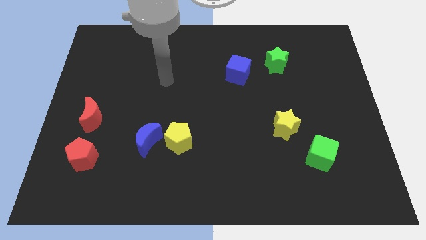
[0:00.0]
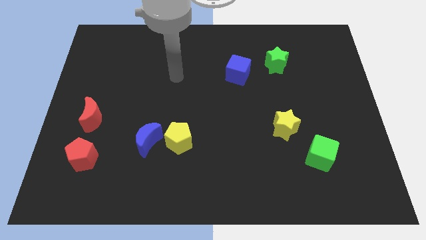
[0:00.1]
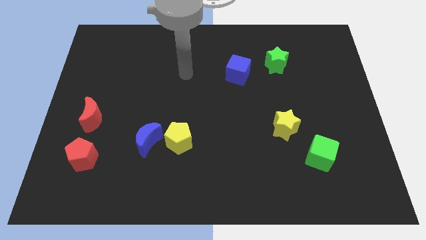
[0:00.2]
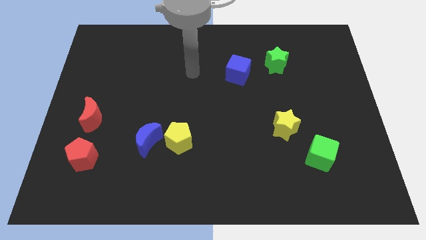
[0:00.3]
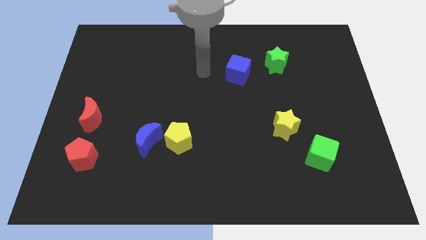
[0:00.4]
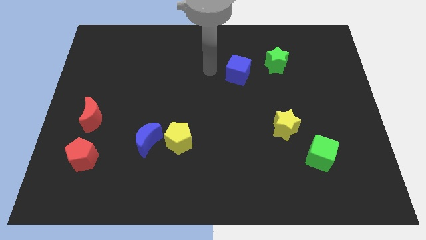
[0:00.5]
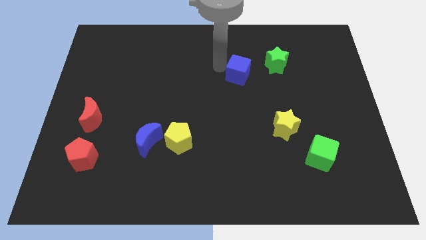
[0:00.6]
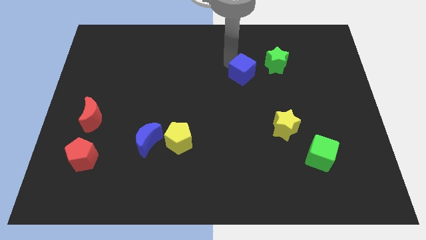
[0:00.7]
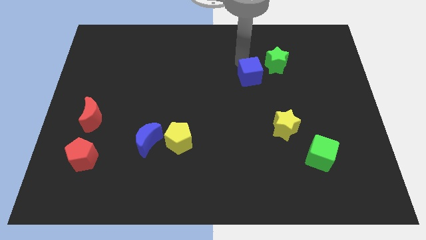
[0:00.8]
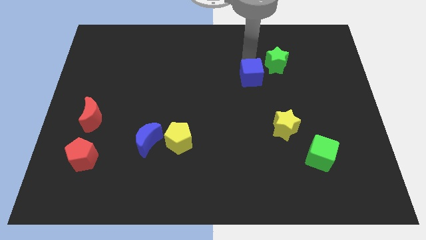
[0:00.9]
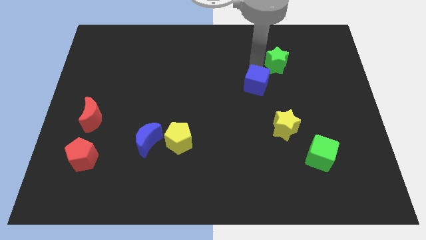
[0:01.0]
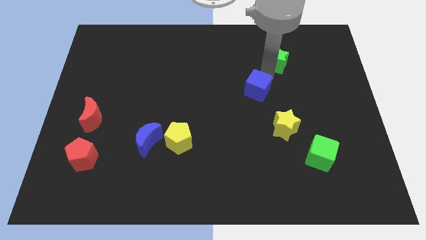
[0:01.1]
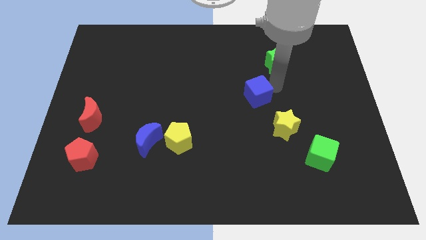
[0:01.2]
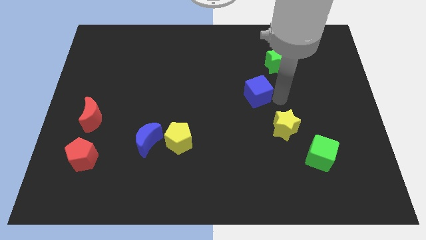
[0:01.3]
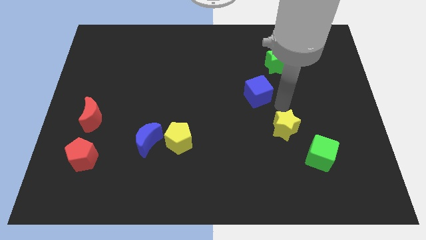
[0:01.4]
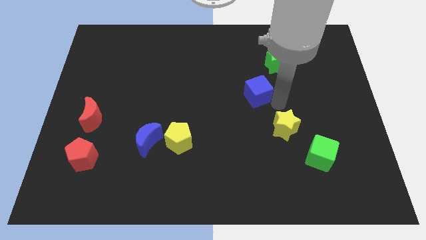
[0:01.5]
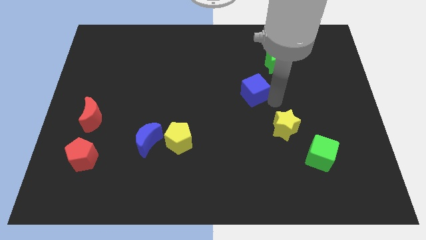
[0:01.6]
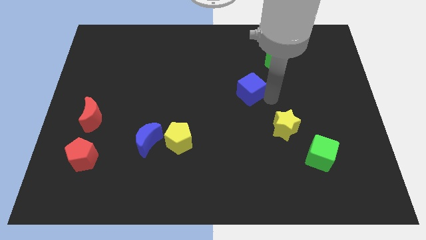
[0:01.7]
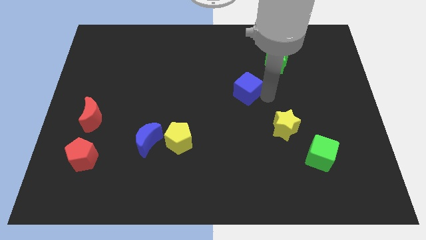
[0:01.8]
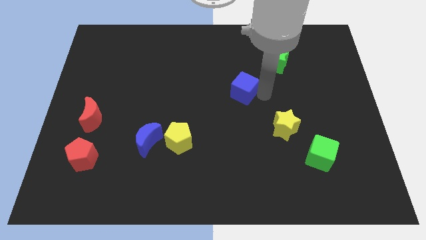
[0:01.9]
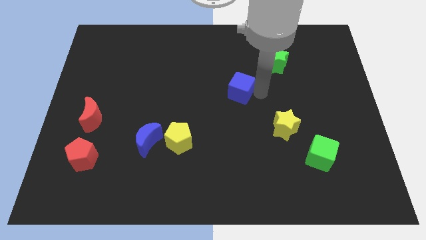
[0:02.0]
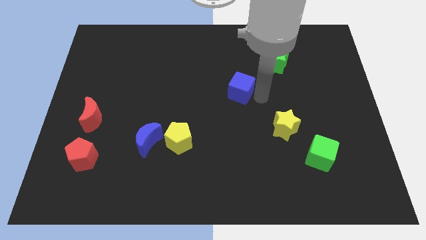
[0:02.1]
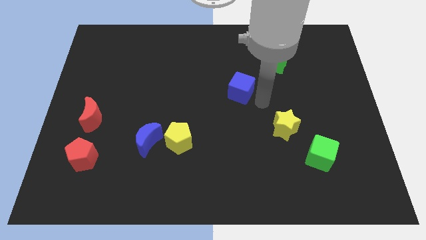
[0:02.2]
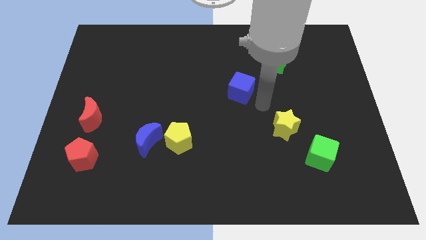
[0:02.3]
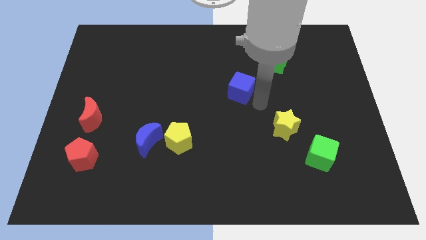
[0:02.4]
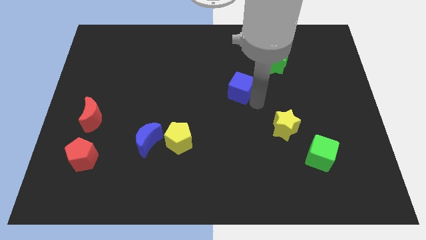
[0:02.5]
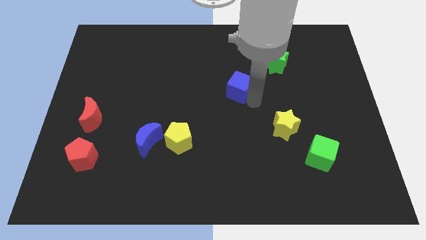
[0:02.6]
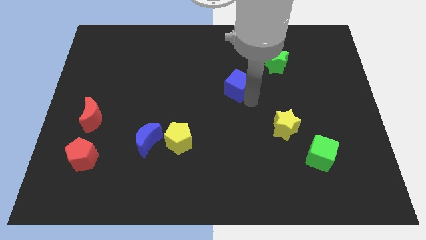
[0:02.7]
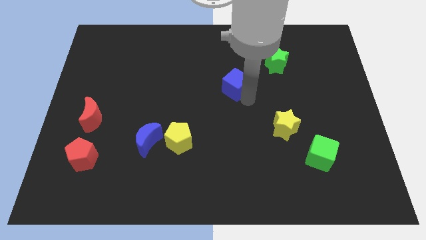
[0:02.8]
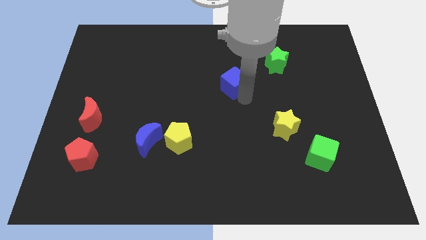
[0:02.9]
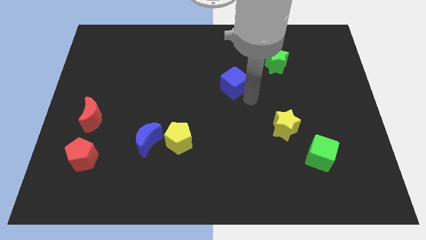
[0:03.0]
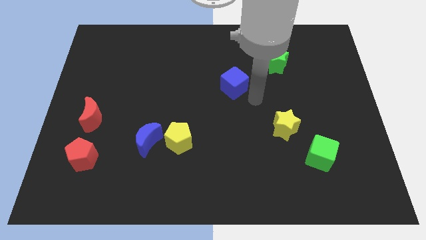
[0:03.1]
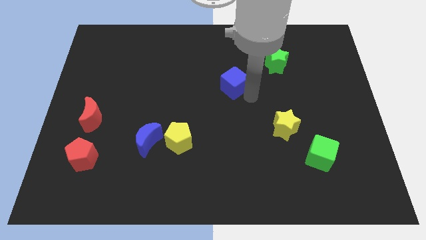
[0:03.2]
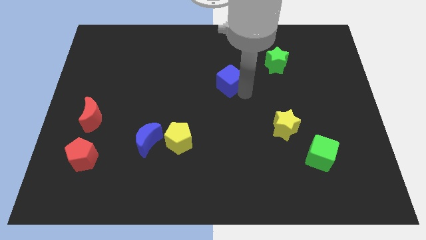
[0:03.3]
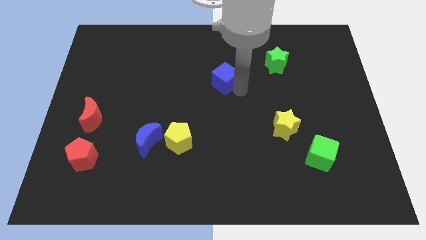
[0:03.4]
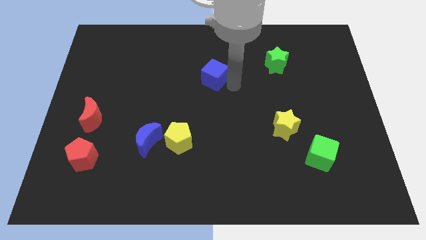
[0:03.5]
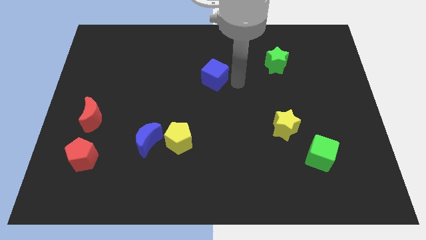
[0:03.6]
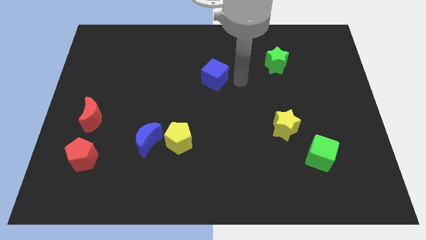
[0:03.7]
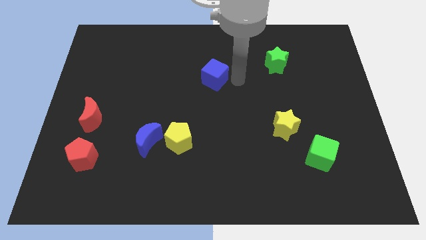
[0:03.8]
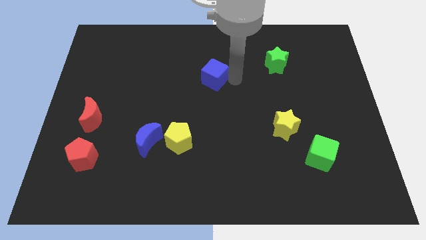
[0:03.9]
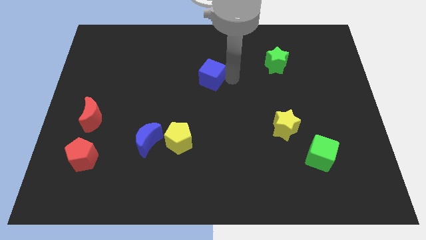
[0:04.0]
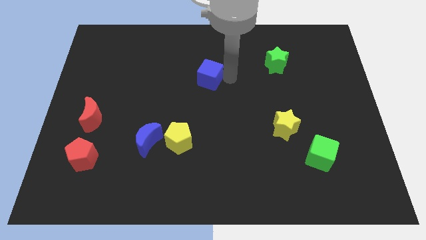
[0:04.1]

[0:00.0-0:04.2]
slide the blue cube a little bit to the left

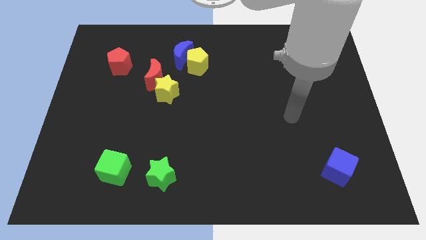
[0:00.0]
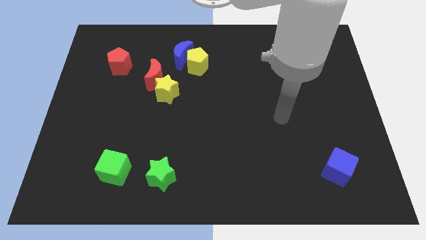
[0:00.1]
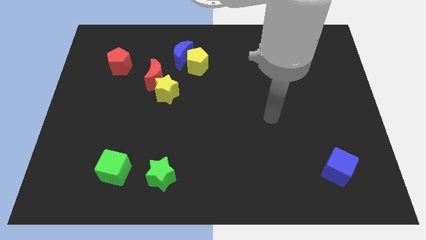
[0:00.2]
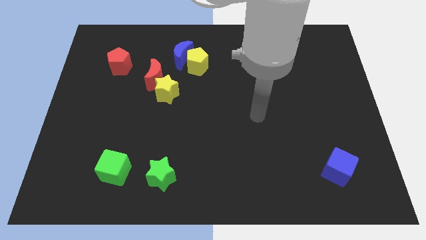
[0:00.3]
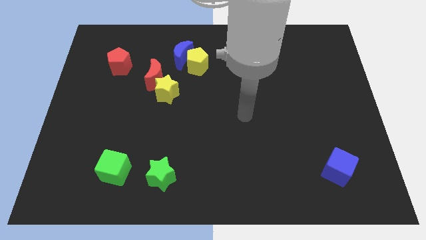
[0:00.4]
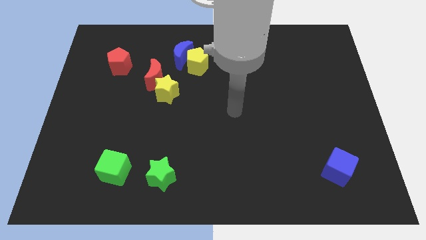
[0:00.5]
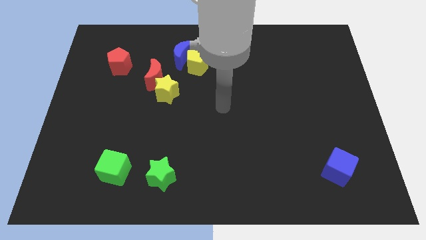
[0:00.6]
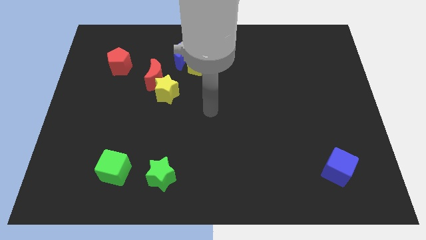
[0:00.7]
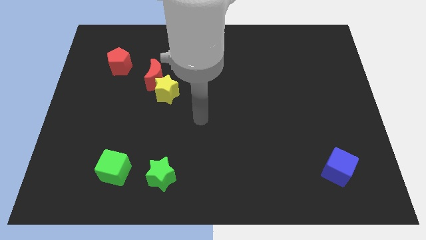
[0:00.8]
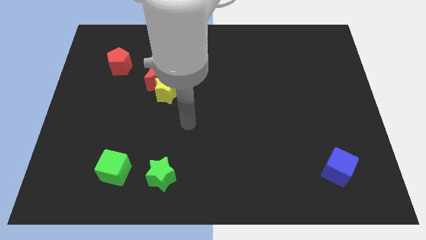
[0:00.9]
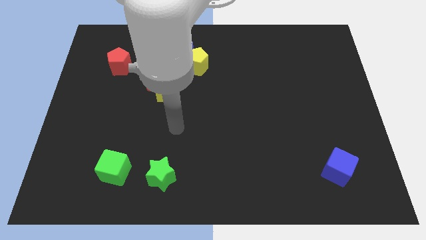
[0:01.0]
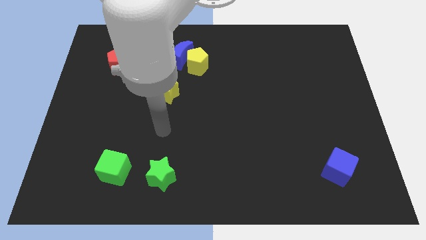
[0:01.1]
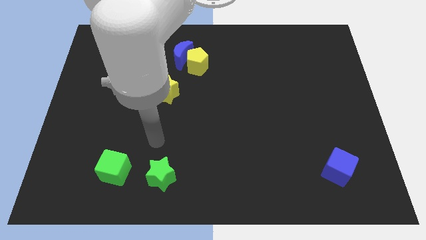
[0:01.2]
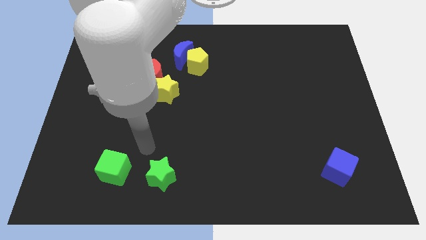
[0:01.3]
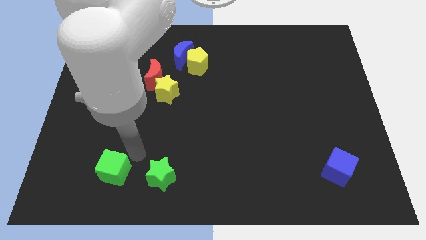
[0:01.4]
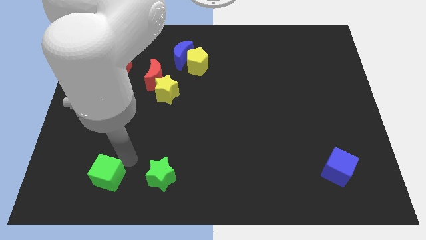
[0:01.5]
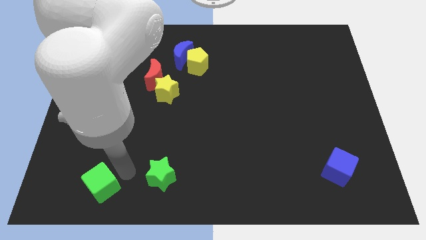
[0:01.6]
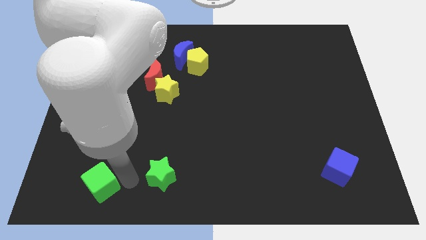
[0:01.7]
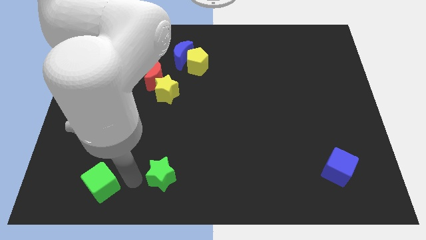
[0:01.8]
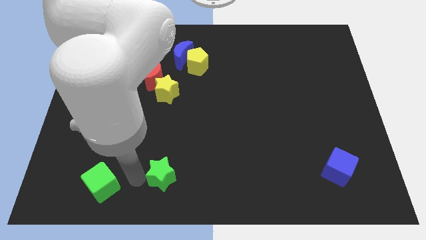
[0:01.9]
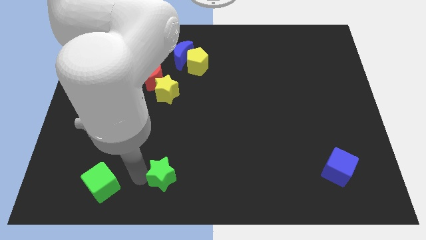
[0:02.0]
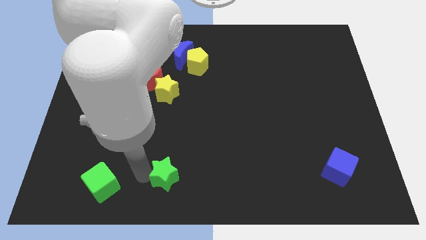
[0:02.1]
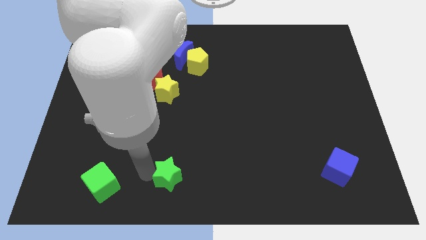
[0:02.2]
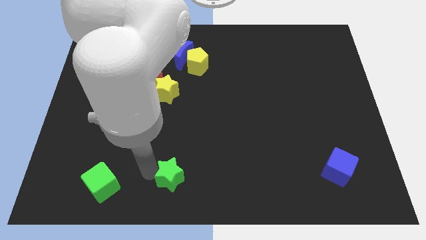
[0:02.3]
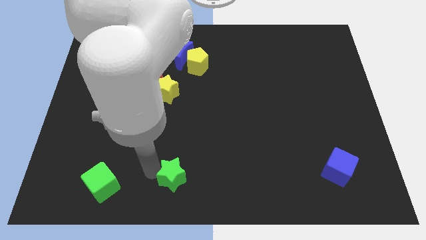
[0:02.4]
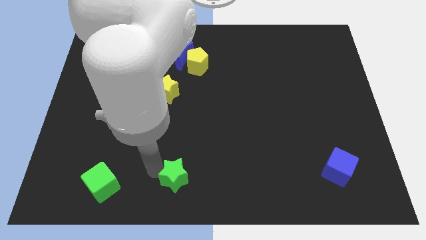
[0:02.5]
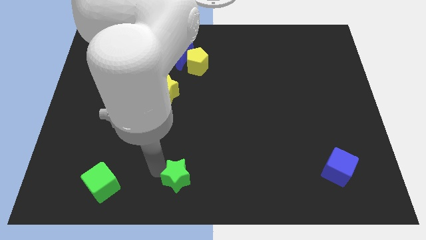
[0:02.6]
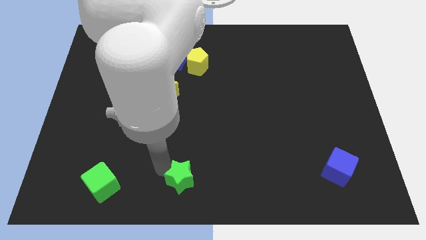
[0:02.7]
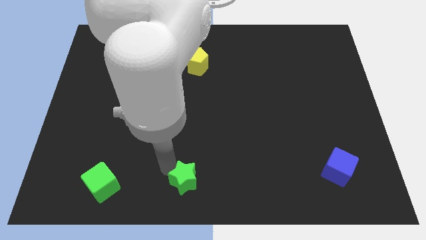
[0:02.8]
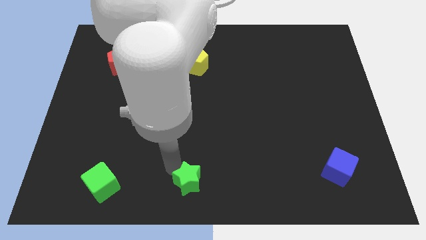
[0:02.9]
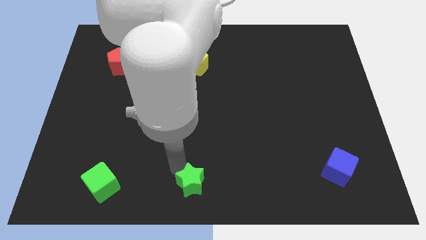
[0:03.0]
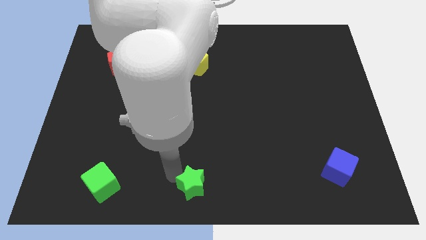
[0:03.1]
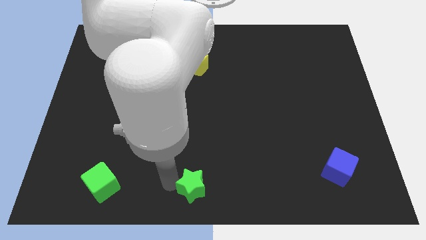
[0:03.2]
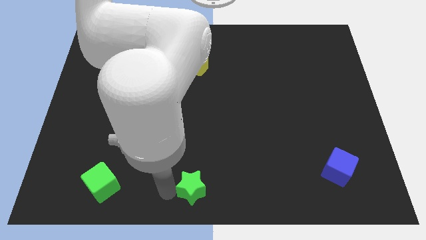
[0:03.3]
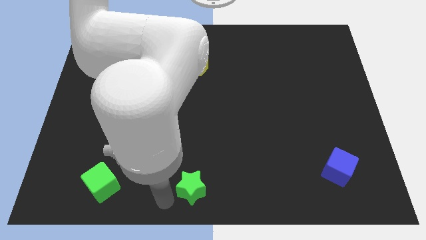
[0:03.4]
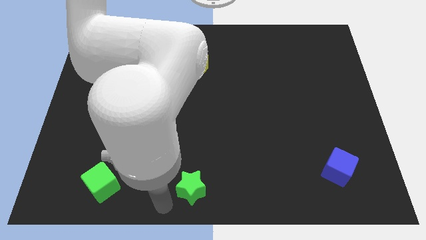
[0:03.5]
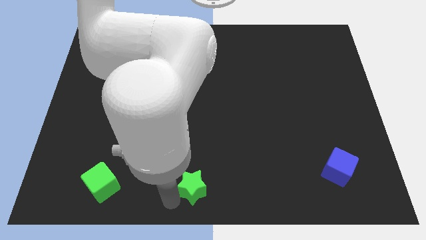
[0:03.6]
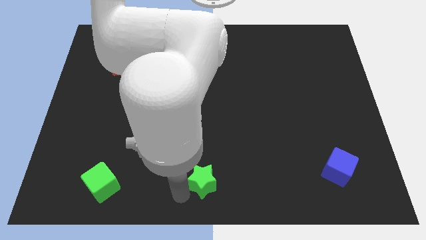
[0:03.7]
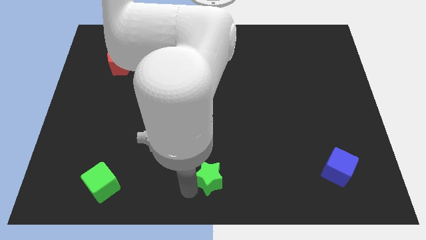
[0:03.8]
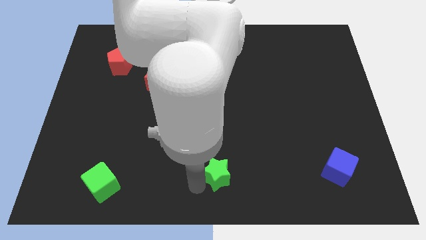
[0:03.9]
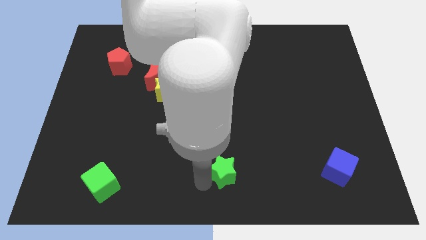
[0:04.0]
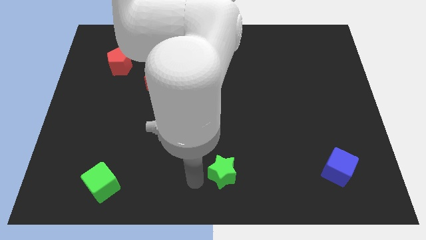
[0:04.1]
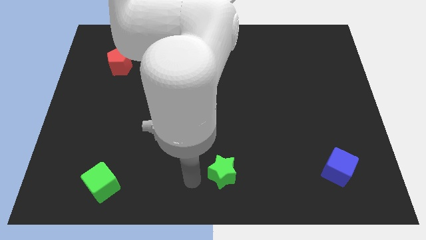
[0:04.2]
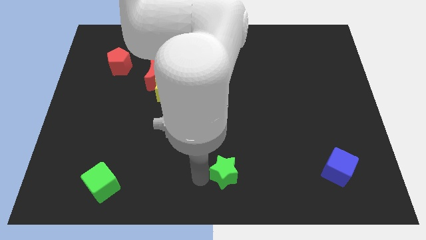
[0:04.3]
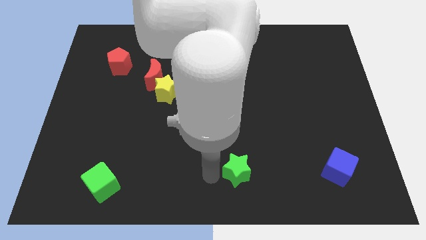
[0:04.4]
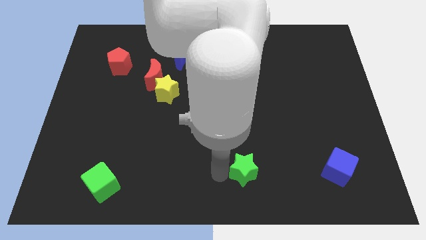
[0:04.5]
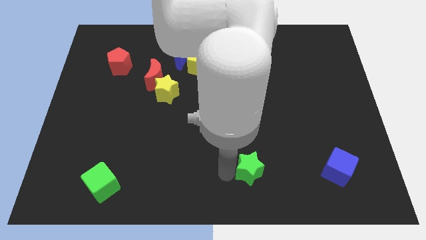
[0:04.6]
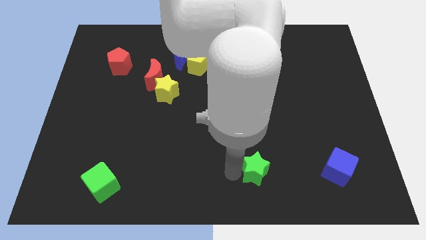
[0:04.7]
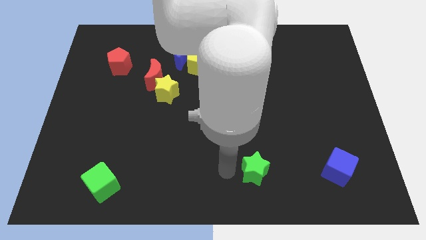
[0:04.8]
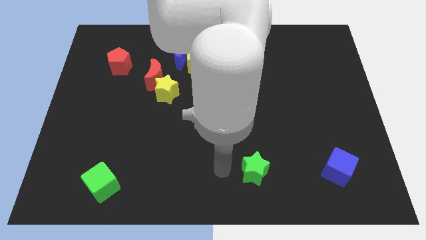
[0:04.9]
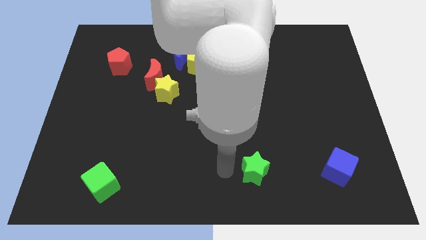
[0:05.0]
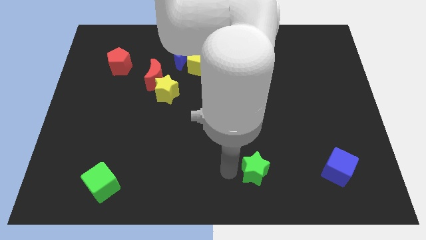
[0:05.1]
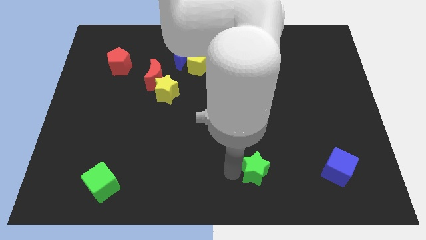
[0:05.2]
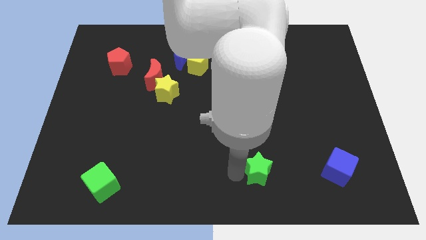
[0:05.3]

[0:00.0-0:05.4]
slide the green star right
